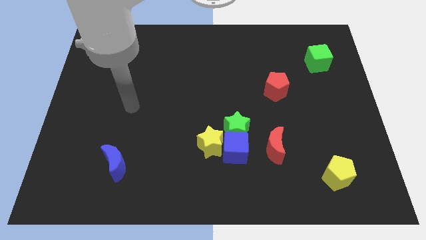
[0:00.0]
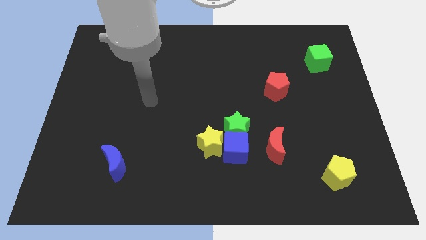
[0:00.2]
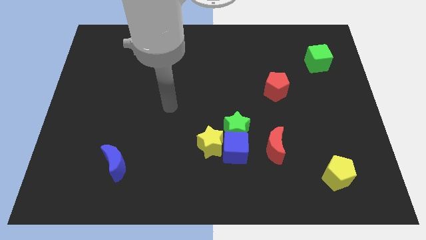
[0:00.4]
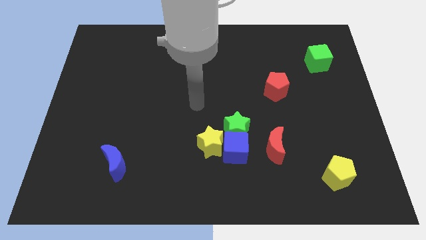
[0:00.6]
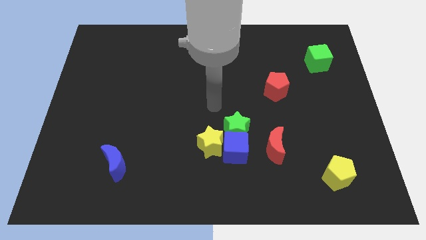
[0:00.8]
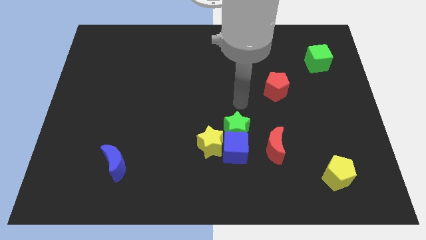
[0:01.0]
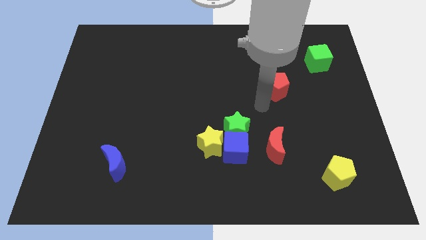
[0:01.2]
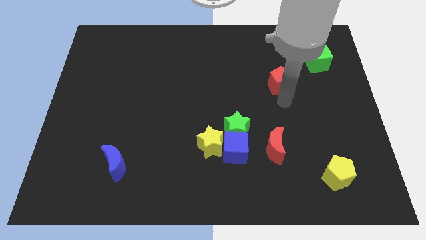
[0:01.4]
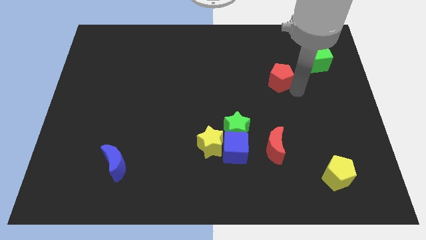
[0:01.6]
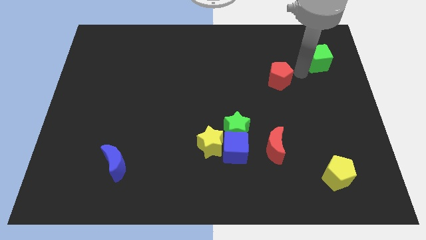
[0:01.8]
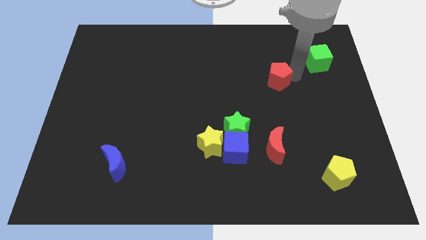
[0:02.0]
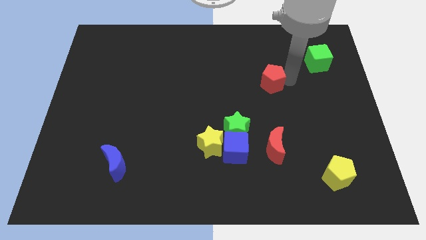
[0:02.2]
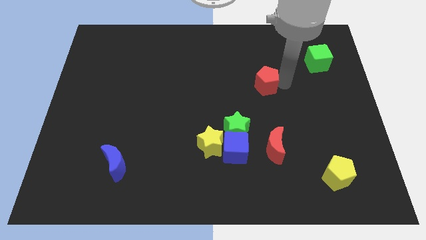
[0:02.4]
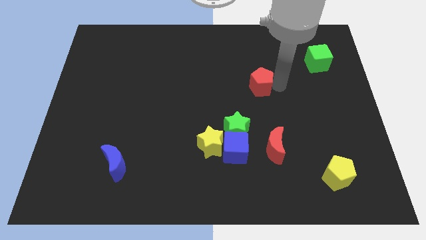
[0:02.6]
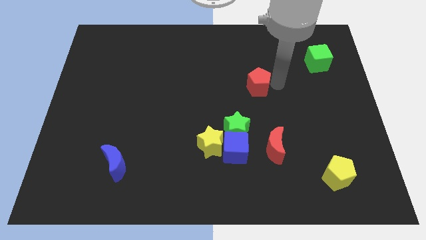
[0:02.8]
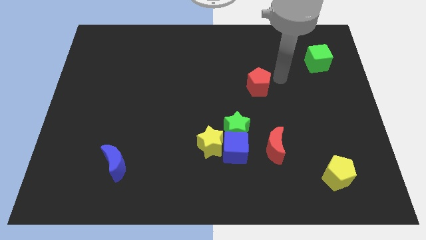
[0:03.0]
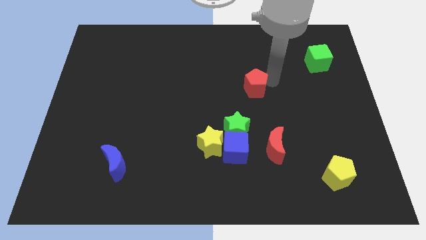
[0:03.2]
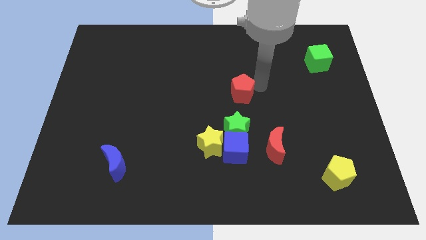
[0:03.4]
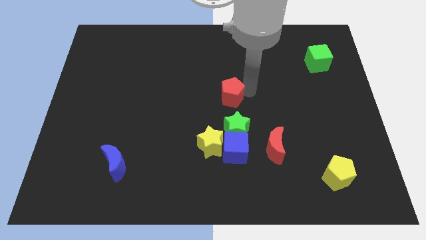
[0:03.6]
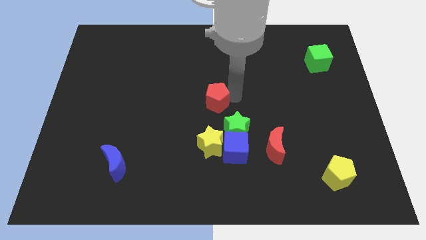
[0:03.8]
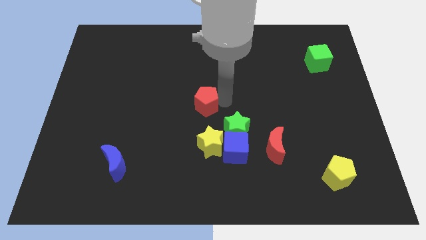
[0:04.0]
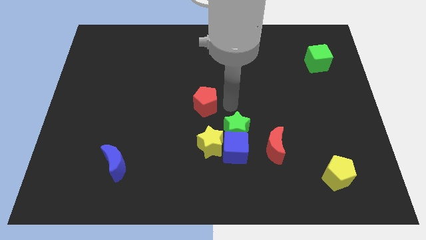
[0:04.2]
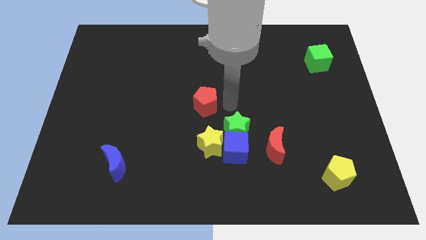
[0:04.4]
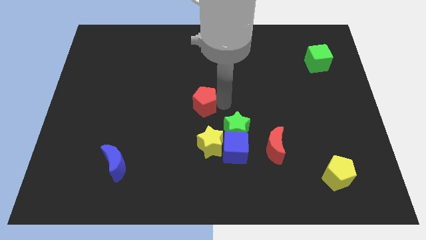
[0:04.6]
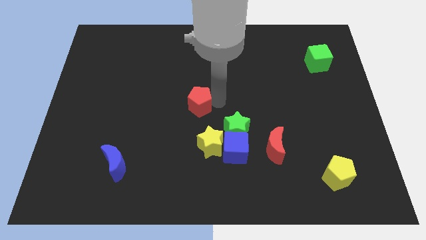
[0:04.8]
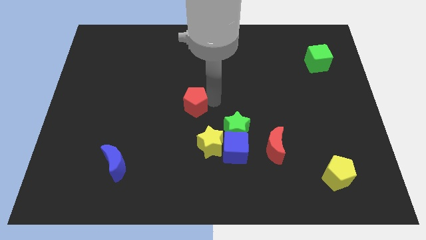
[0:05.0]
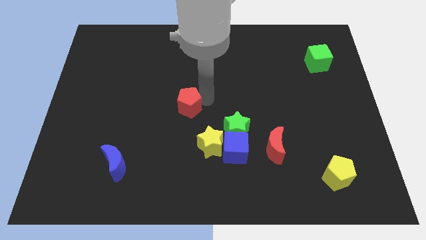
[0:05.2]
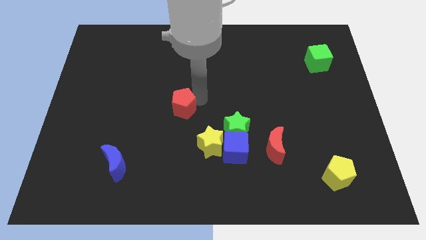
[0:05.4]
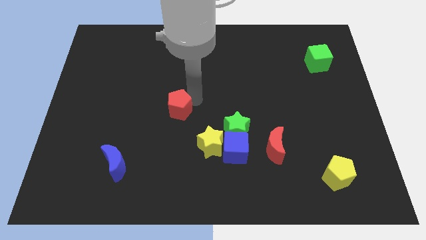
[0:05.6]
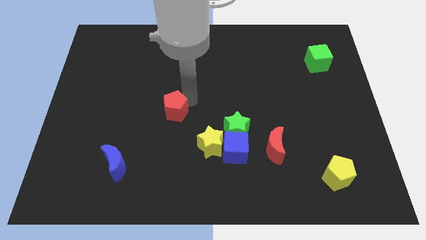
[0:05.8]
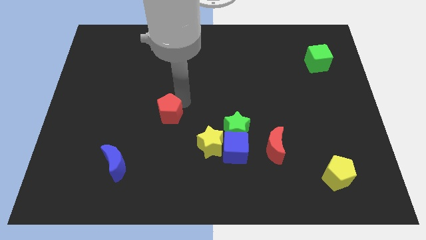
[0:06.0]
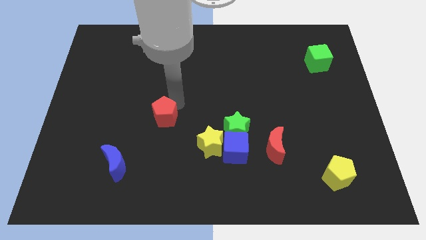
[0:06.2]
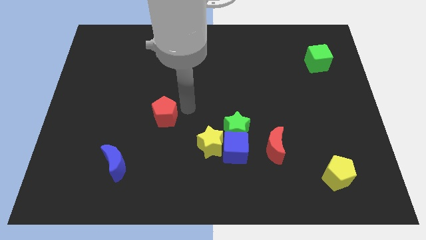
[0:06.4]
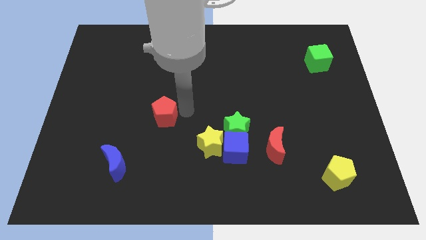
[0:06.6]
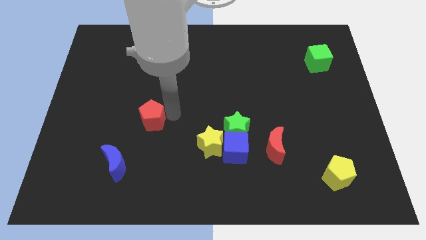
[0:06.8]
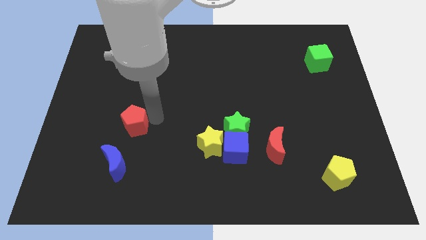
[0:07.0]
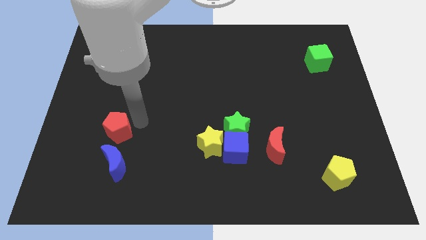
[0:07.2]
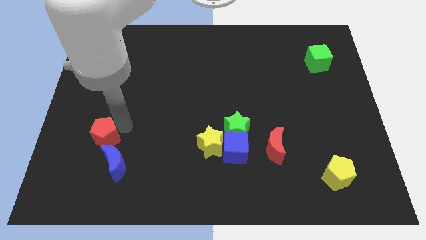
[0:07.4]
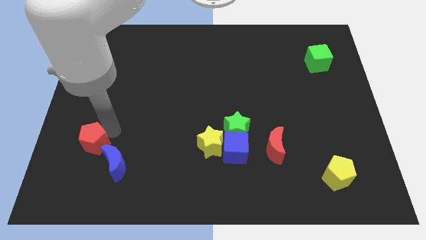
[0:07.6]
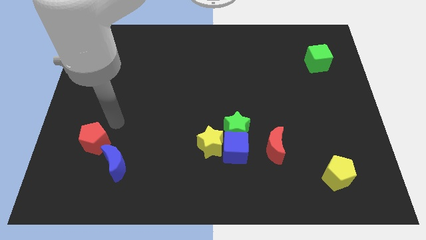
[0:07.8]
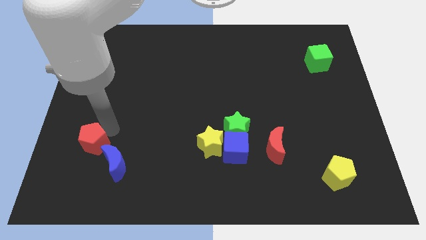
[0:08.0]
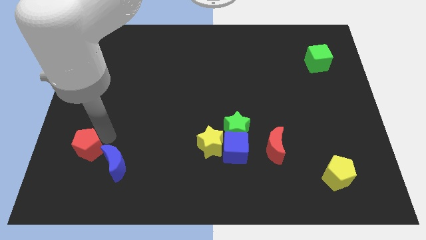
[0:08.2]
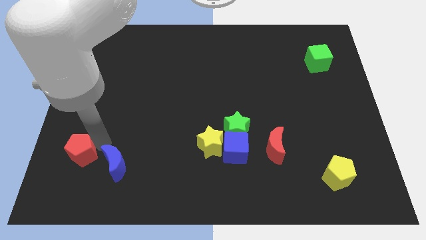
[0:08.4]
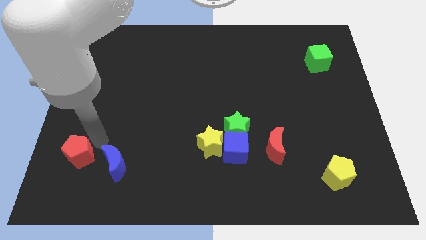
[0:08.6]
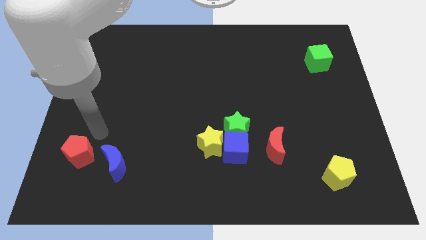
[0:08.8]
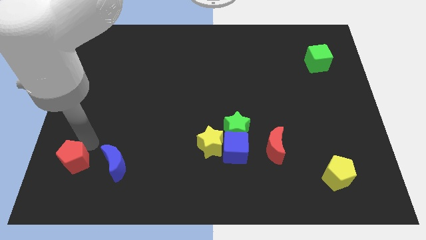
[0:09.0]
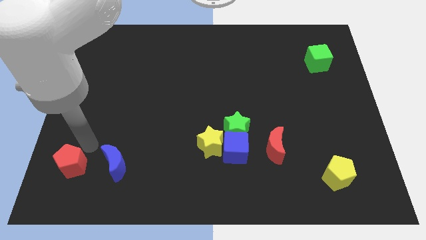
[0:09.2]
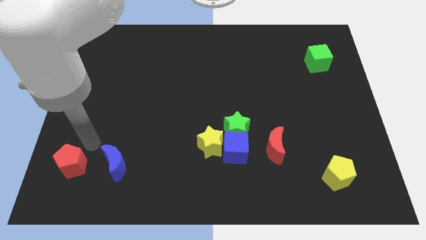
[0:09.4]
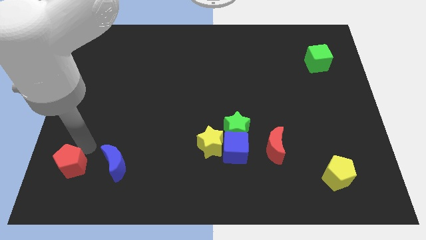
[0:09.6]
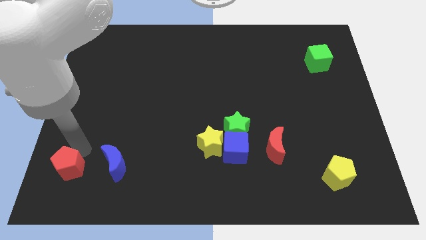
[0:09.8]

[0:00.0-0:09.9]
slide the red pentagon to the bottom left

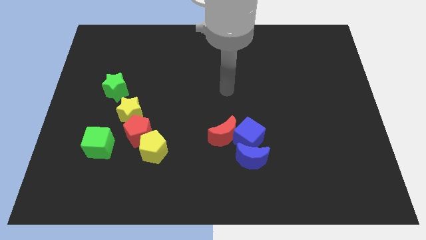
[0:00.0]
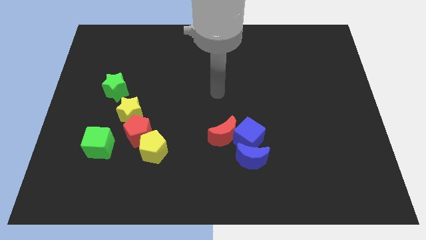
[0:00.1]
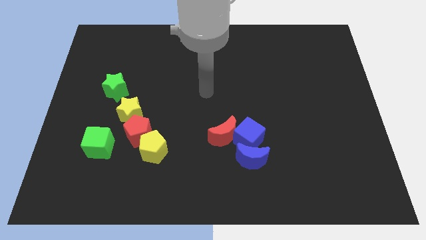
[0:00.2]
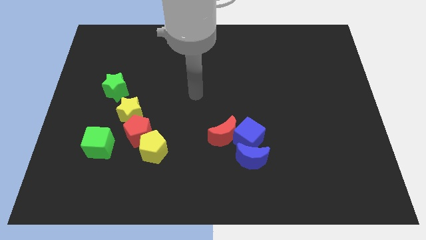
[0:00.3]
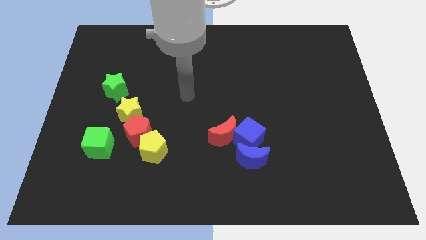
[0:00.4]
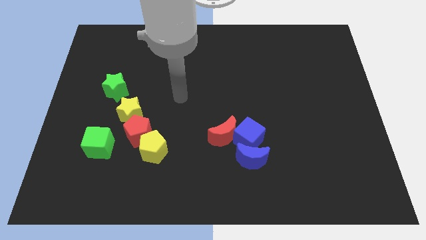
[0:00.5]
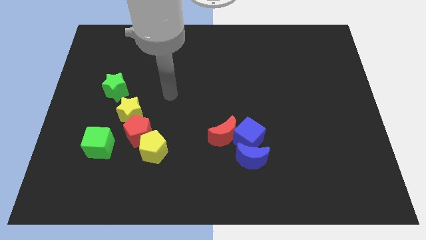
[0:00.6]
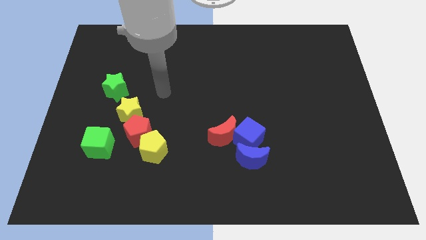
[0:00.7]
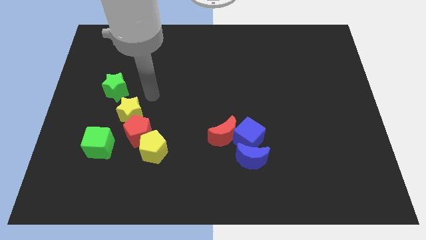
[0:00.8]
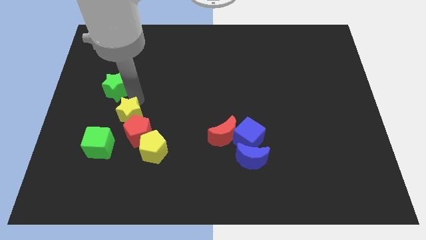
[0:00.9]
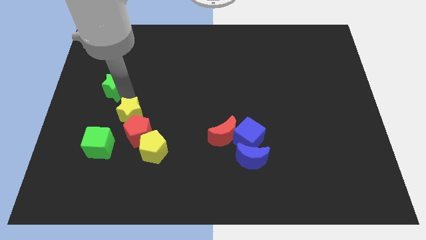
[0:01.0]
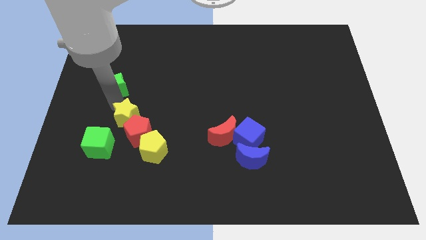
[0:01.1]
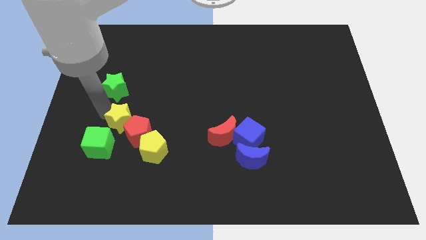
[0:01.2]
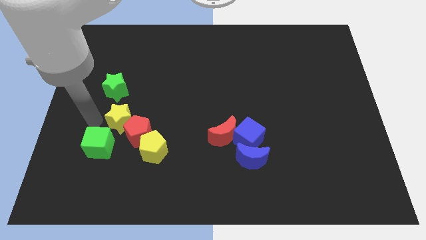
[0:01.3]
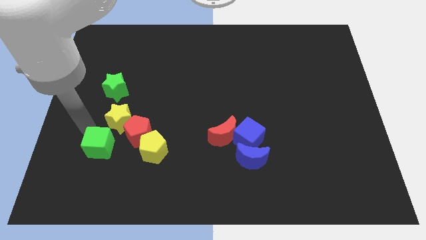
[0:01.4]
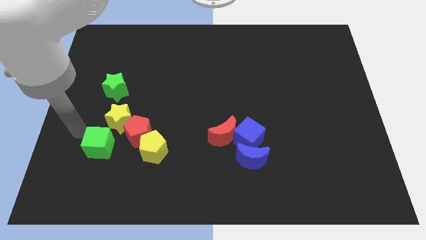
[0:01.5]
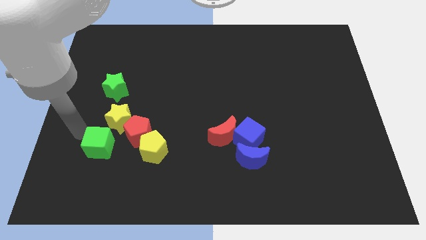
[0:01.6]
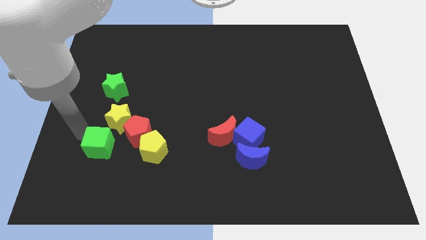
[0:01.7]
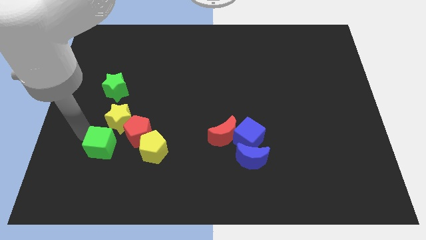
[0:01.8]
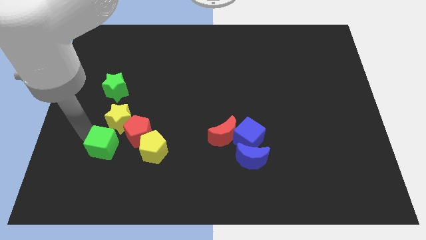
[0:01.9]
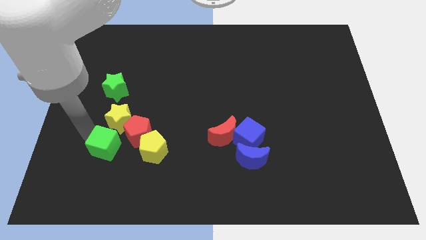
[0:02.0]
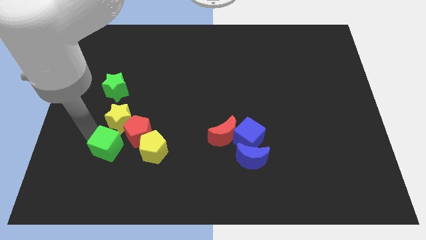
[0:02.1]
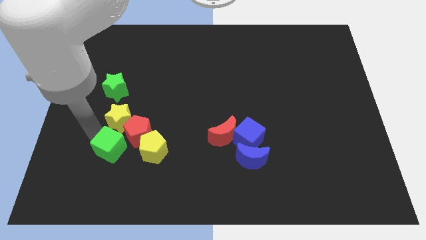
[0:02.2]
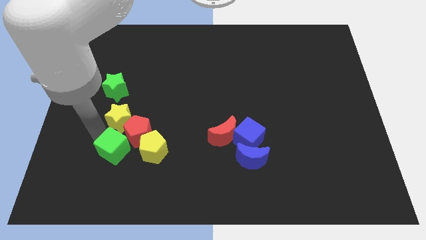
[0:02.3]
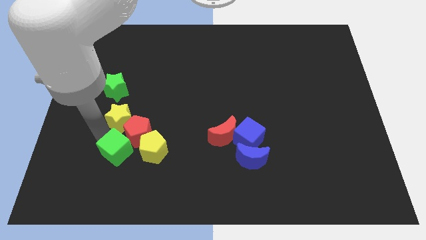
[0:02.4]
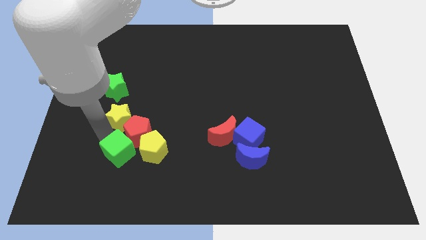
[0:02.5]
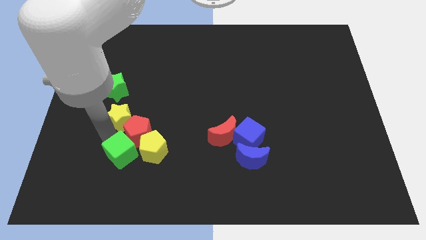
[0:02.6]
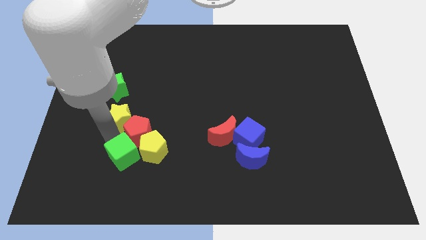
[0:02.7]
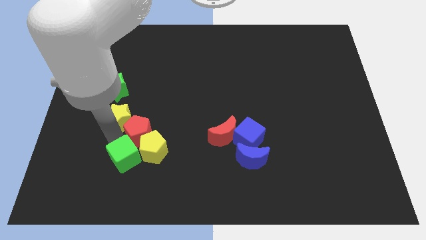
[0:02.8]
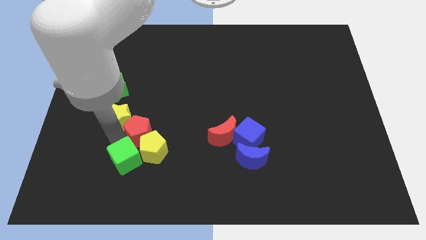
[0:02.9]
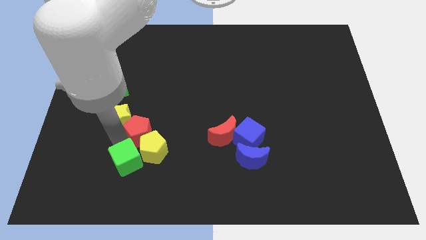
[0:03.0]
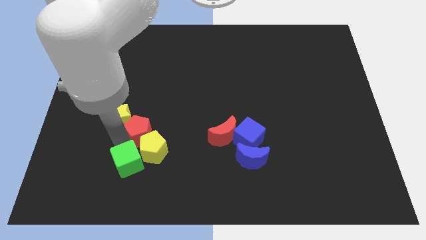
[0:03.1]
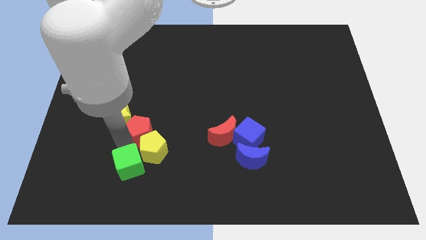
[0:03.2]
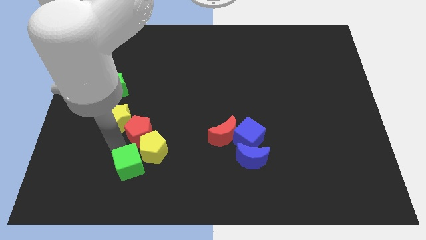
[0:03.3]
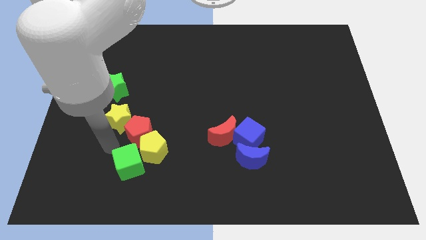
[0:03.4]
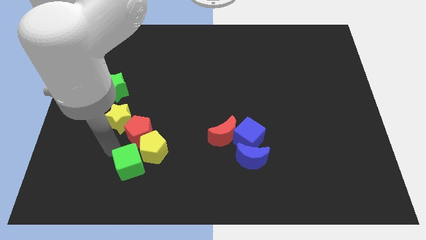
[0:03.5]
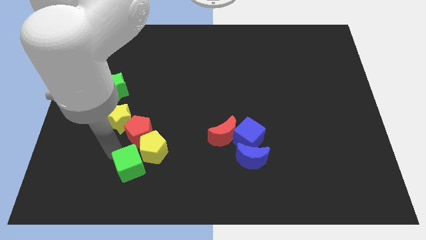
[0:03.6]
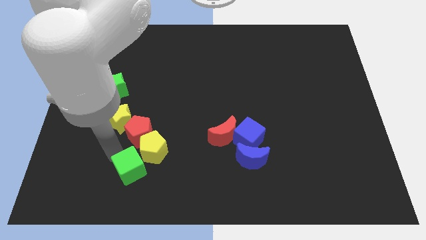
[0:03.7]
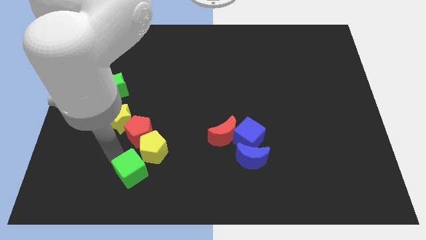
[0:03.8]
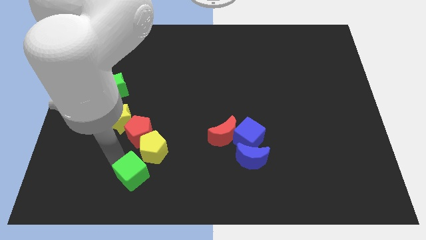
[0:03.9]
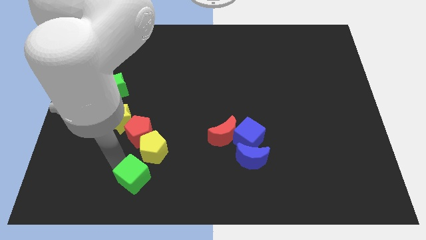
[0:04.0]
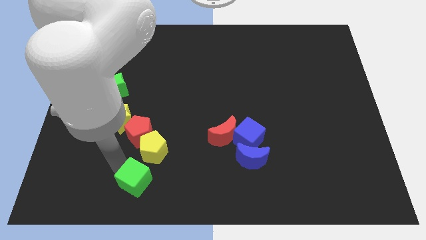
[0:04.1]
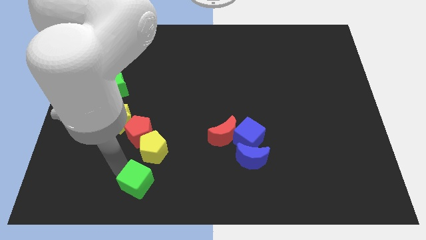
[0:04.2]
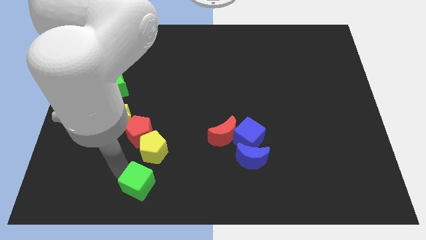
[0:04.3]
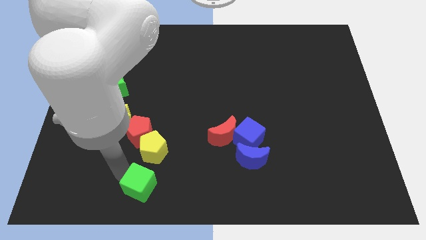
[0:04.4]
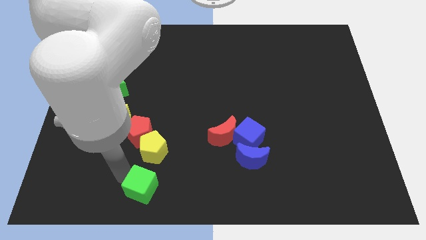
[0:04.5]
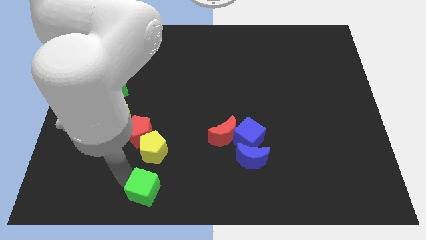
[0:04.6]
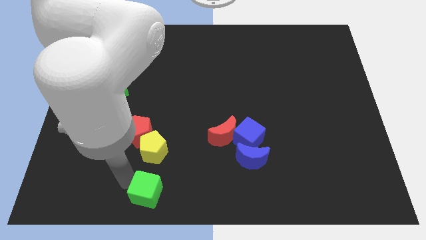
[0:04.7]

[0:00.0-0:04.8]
put the green cube to the bottom
